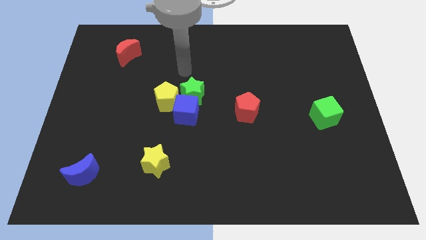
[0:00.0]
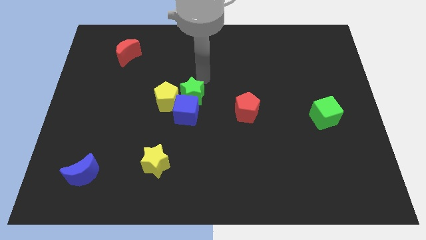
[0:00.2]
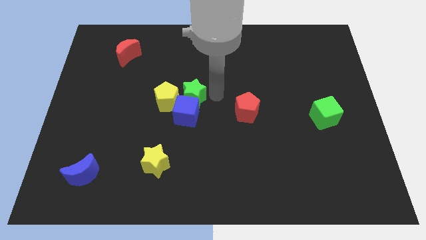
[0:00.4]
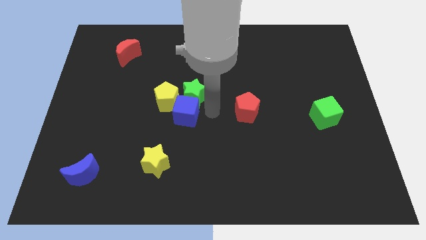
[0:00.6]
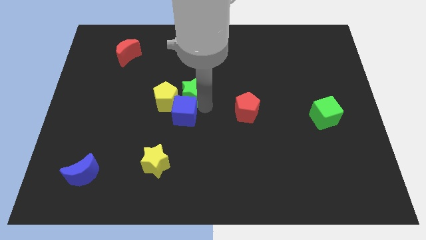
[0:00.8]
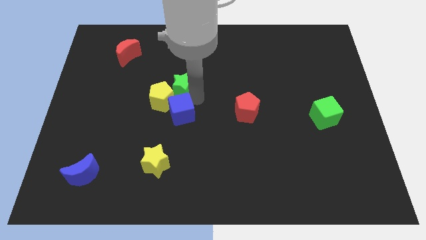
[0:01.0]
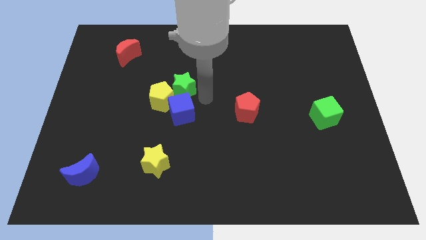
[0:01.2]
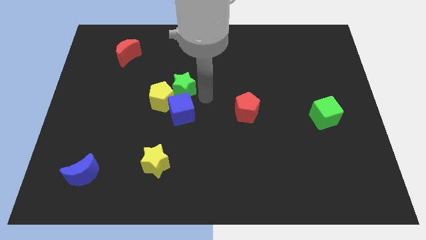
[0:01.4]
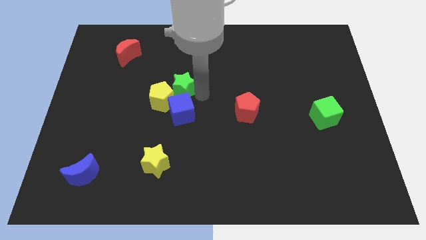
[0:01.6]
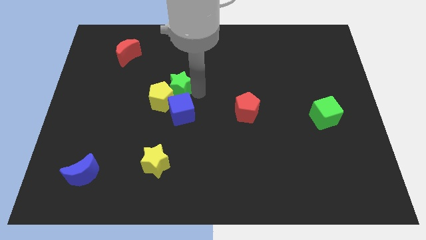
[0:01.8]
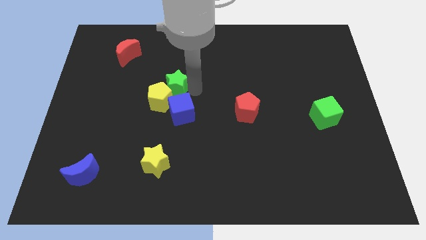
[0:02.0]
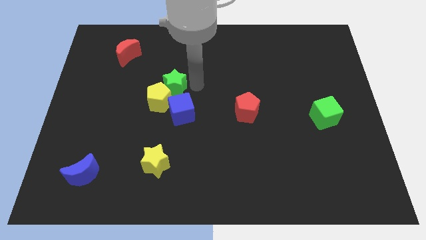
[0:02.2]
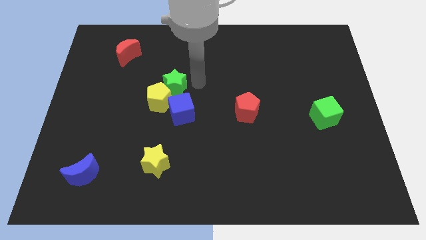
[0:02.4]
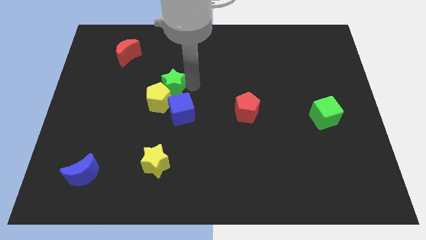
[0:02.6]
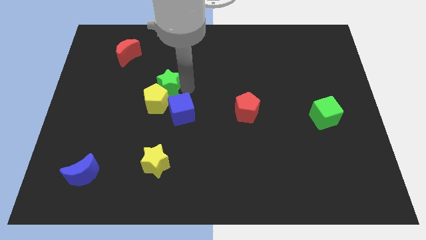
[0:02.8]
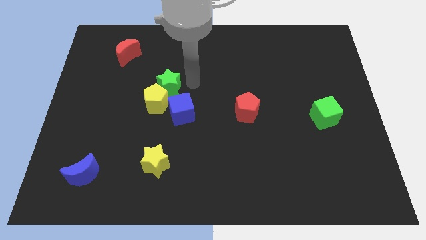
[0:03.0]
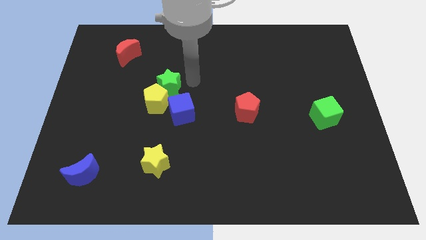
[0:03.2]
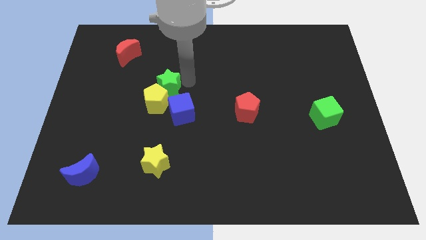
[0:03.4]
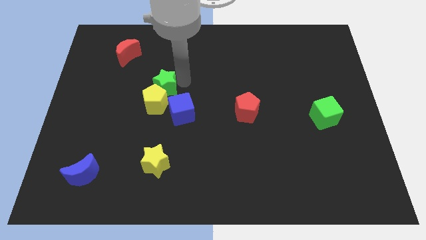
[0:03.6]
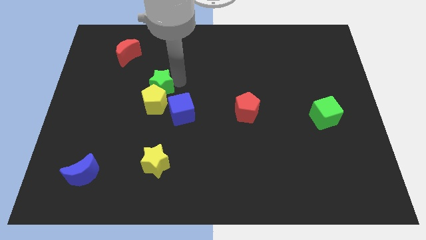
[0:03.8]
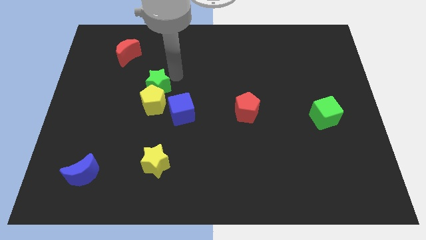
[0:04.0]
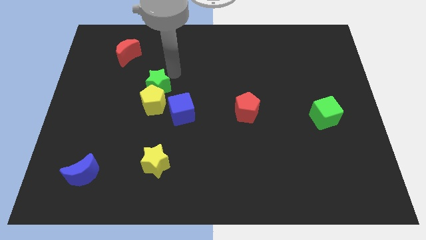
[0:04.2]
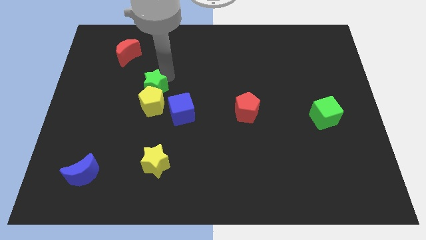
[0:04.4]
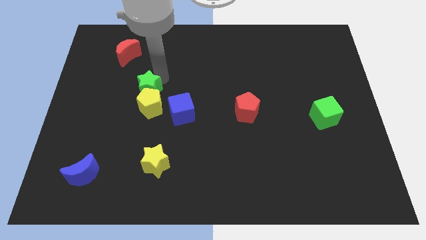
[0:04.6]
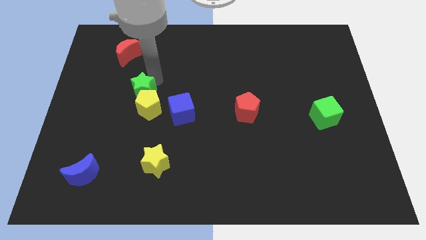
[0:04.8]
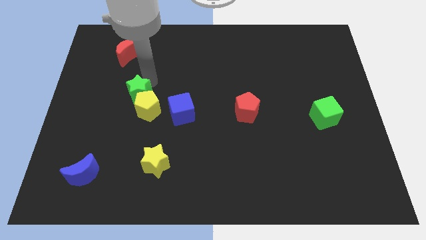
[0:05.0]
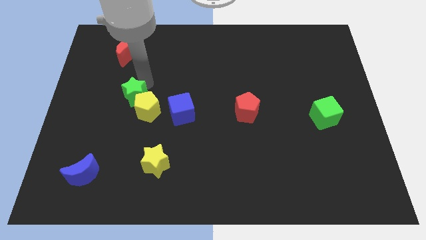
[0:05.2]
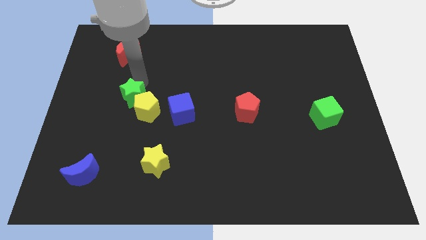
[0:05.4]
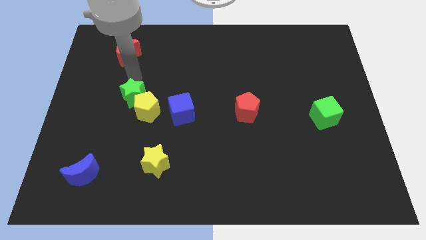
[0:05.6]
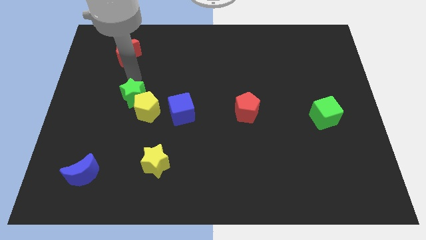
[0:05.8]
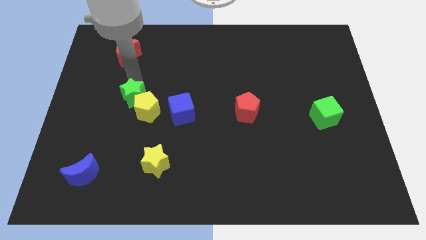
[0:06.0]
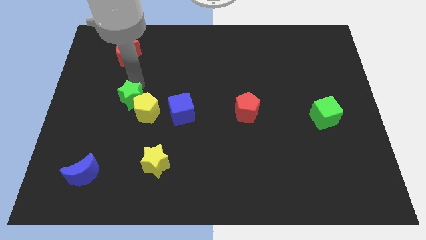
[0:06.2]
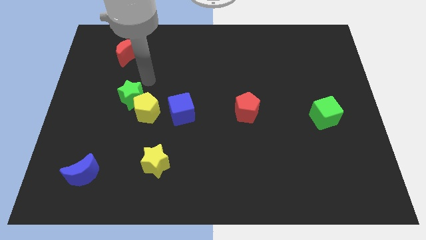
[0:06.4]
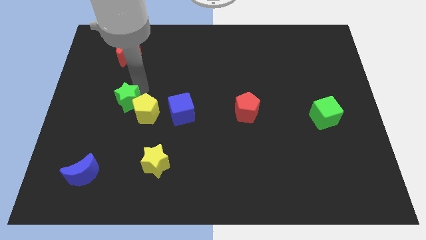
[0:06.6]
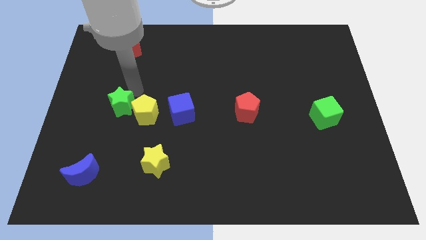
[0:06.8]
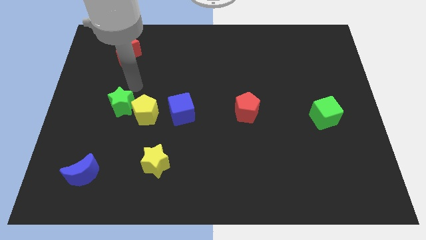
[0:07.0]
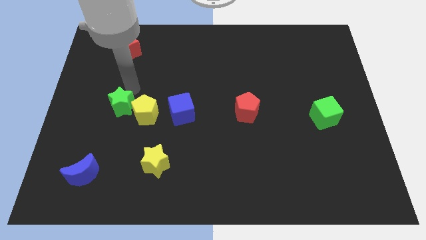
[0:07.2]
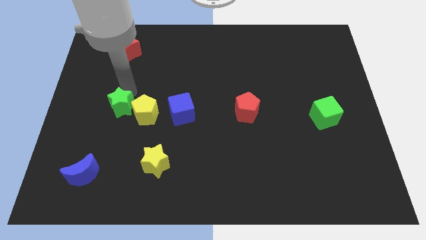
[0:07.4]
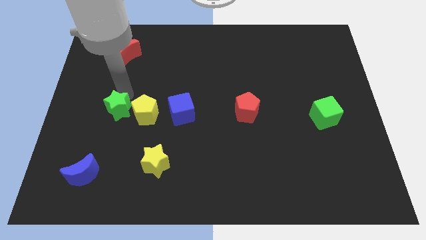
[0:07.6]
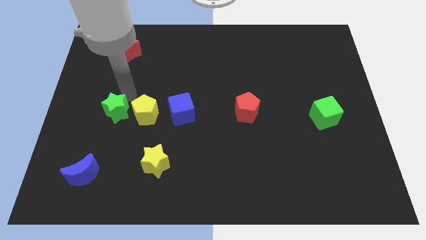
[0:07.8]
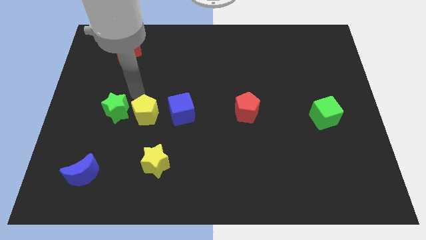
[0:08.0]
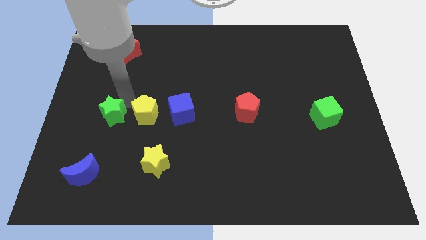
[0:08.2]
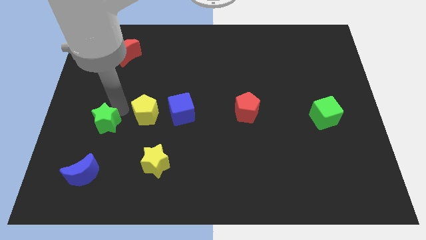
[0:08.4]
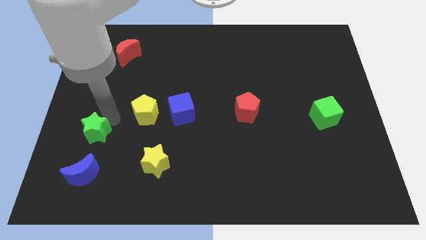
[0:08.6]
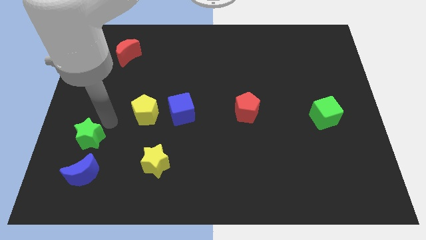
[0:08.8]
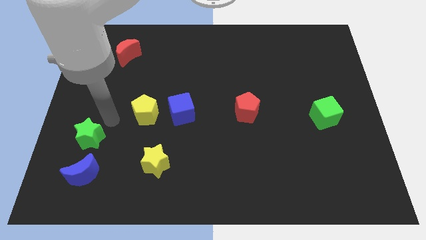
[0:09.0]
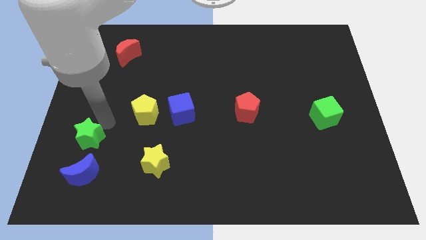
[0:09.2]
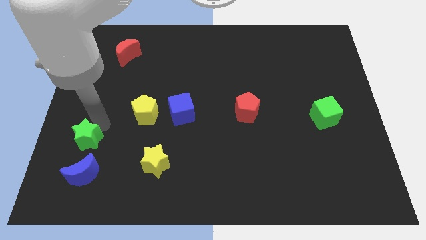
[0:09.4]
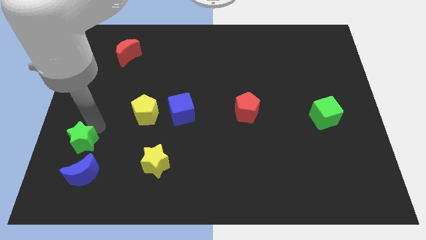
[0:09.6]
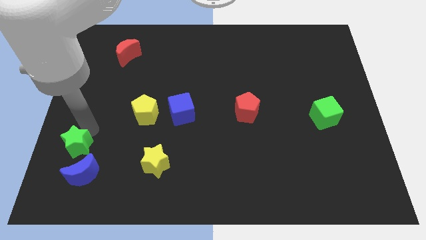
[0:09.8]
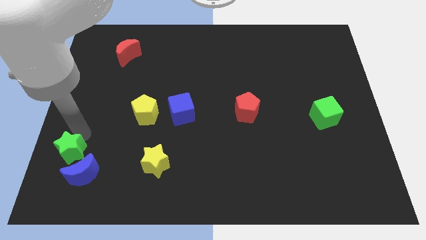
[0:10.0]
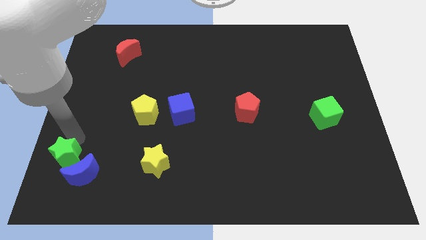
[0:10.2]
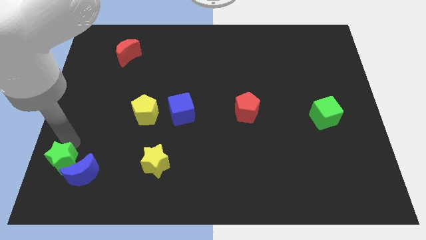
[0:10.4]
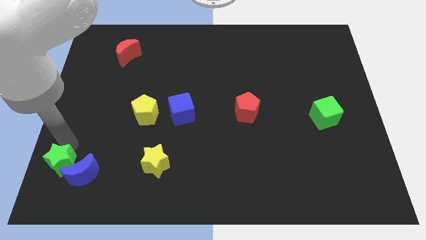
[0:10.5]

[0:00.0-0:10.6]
slide the green star to the bottom left
